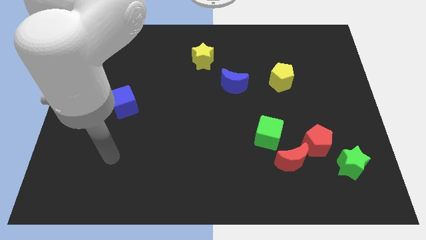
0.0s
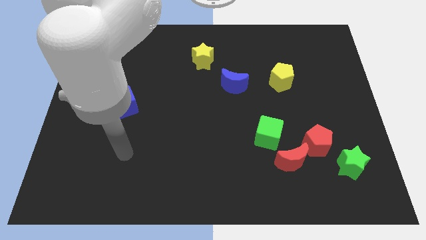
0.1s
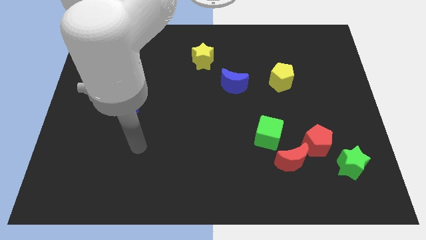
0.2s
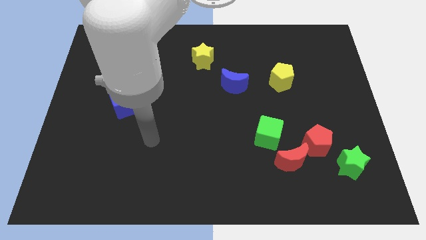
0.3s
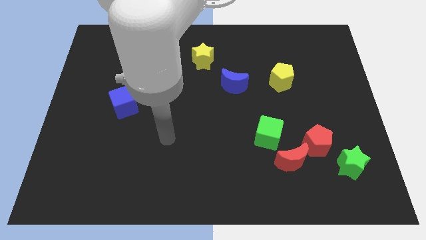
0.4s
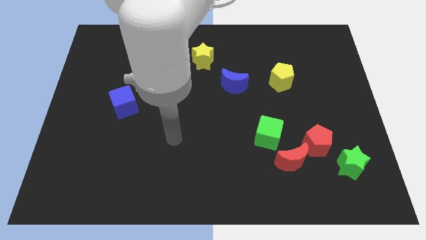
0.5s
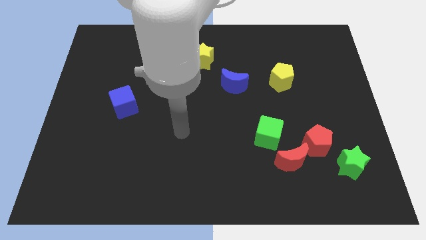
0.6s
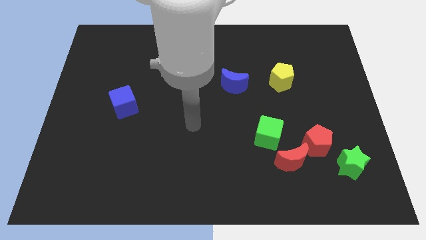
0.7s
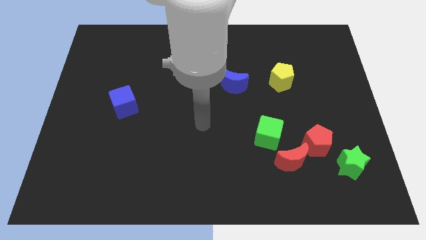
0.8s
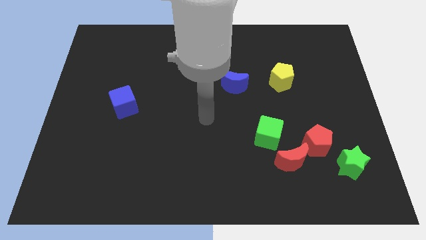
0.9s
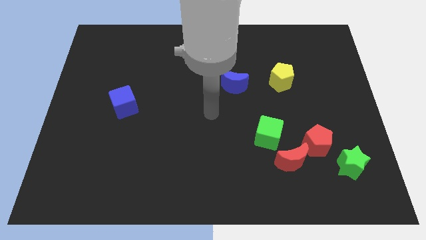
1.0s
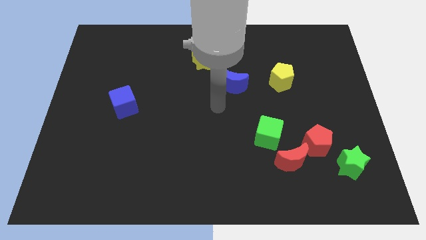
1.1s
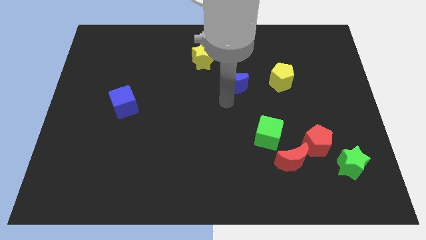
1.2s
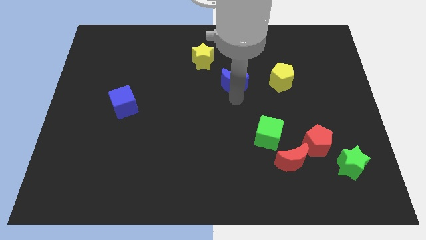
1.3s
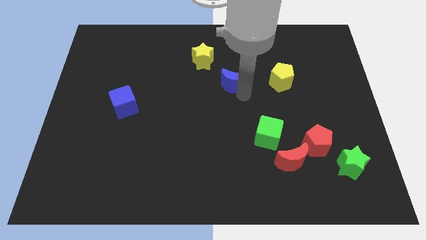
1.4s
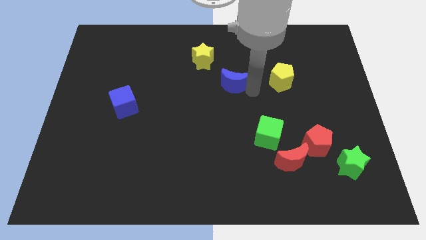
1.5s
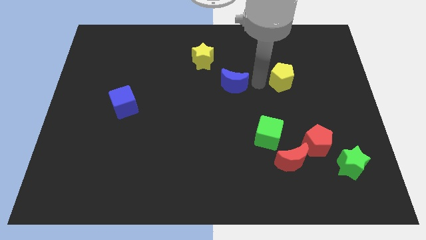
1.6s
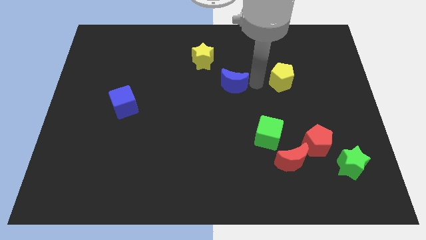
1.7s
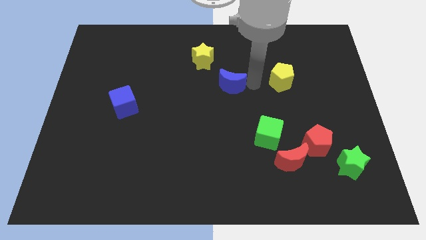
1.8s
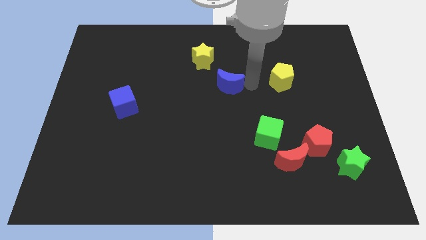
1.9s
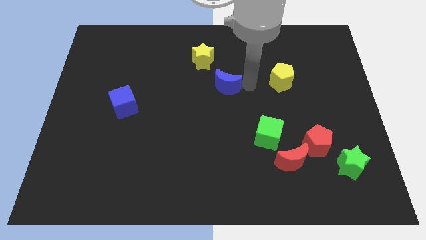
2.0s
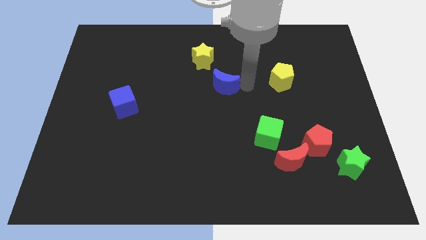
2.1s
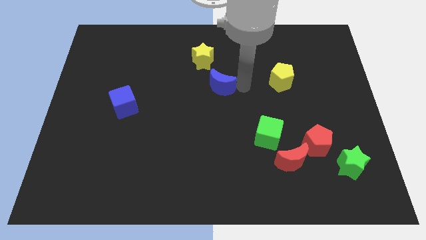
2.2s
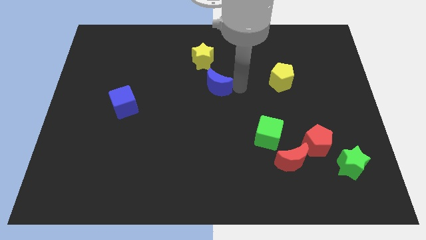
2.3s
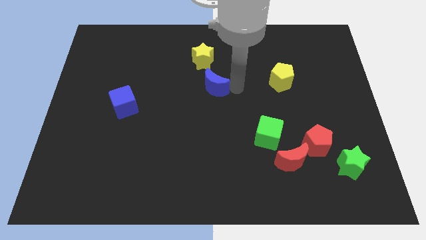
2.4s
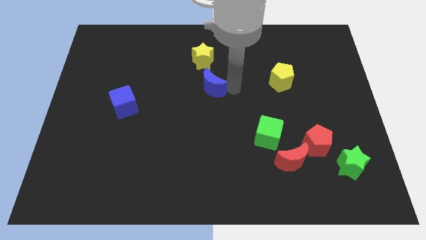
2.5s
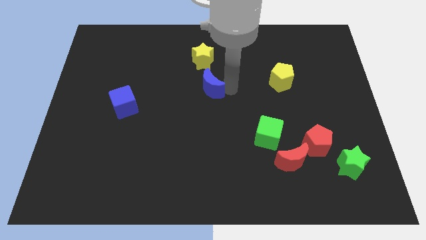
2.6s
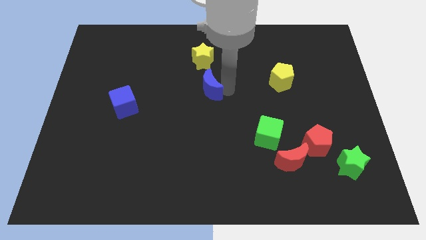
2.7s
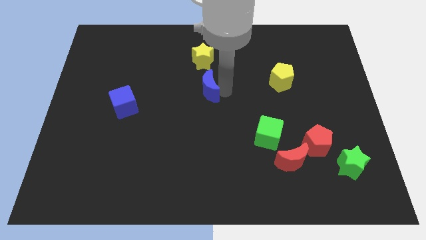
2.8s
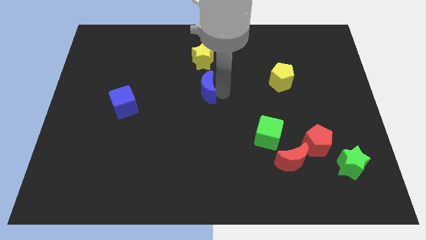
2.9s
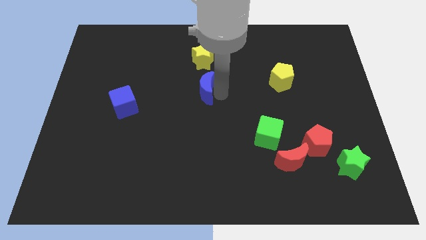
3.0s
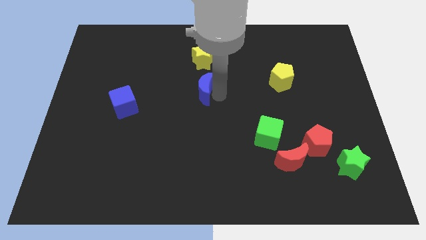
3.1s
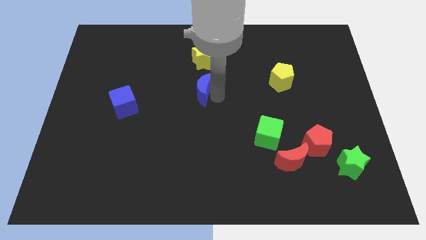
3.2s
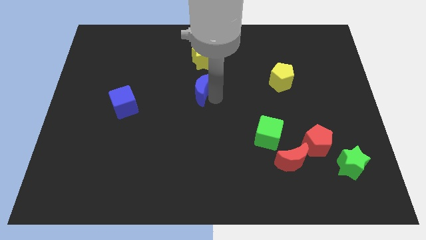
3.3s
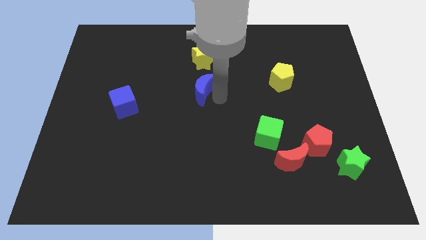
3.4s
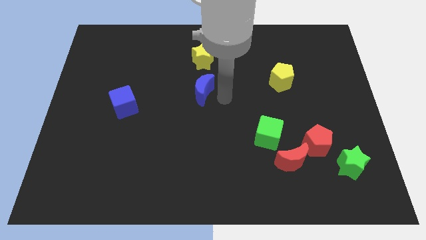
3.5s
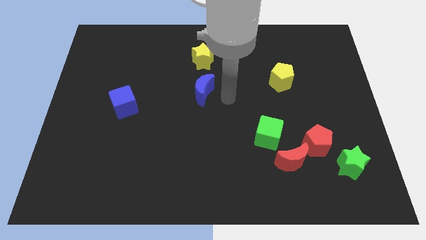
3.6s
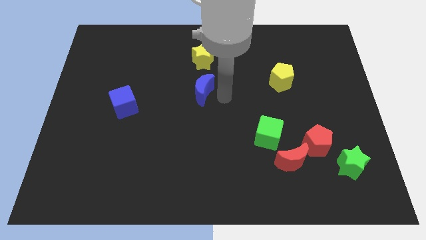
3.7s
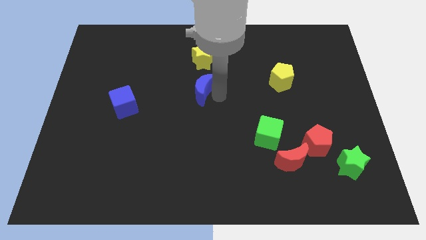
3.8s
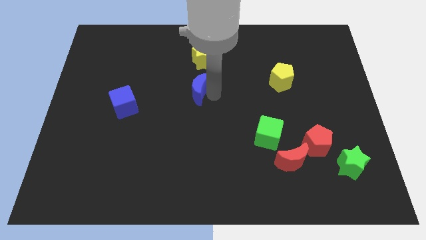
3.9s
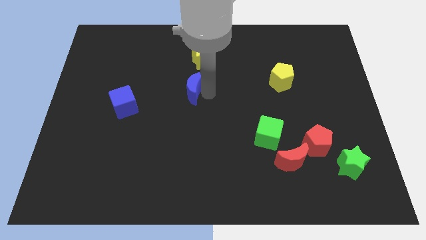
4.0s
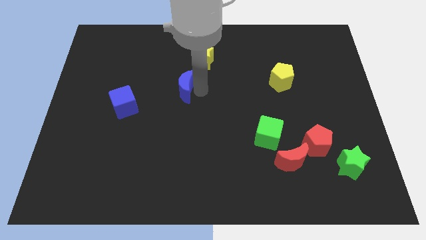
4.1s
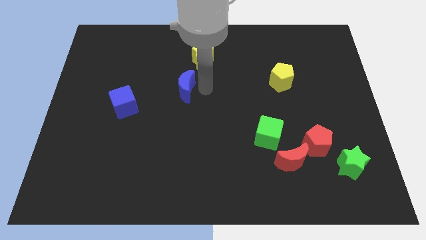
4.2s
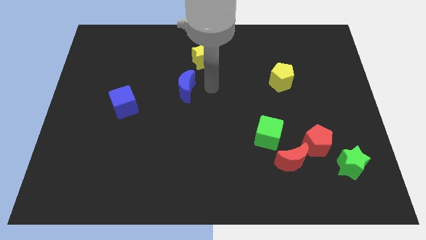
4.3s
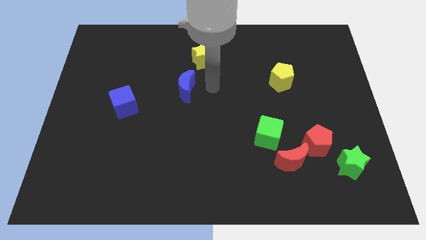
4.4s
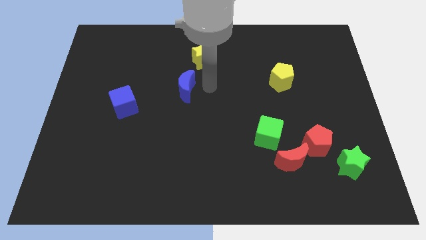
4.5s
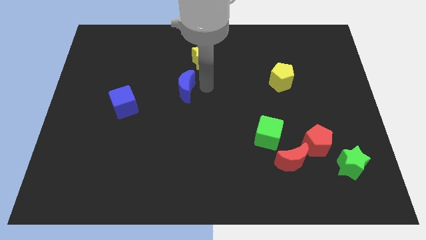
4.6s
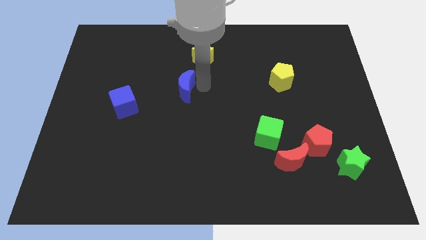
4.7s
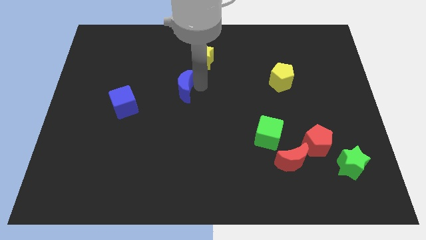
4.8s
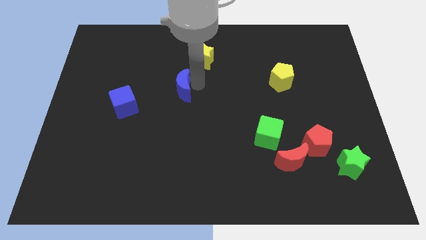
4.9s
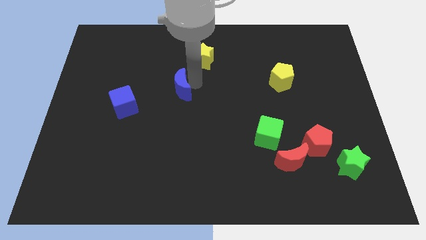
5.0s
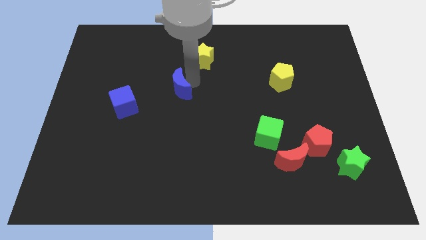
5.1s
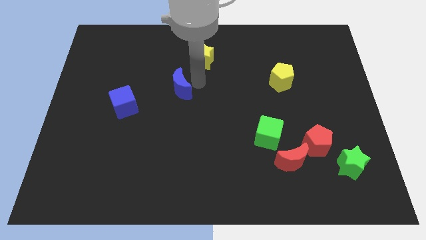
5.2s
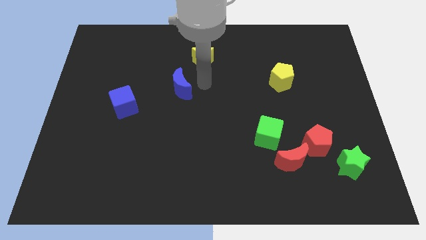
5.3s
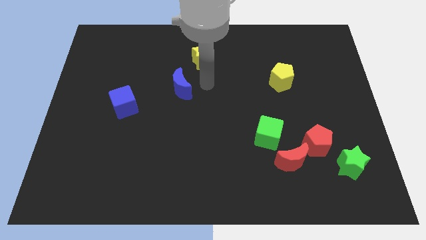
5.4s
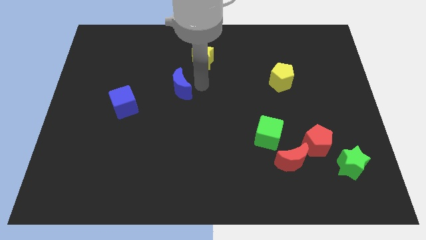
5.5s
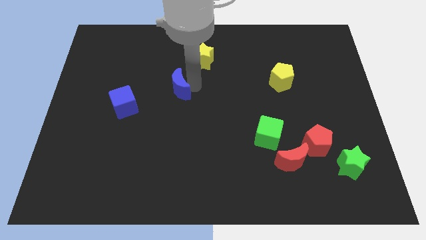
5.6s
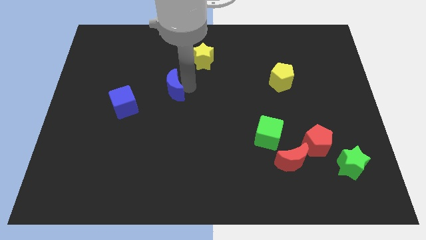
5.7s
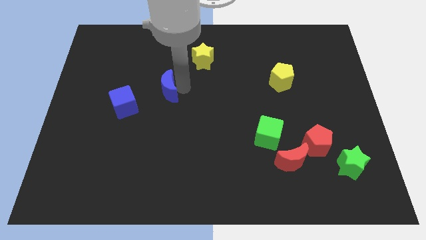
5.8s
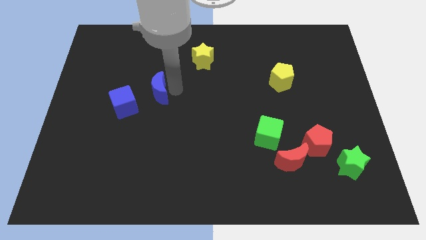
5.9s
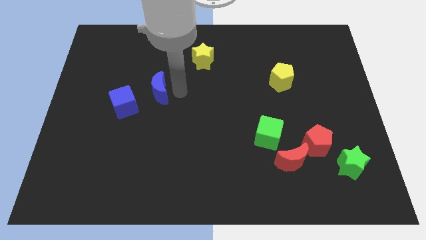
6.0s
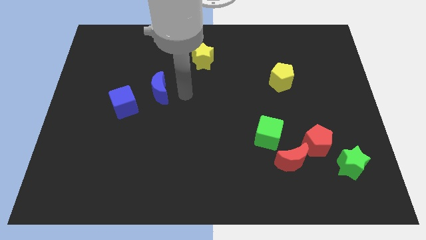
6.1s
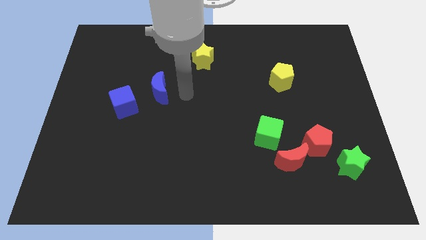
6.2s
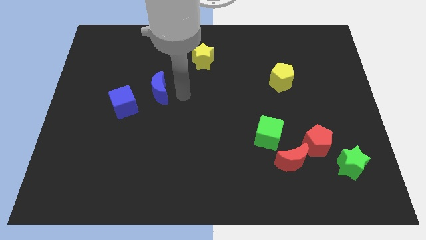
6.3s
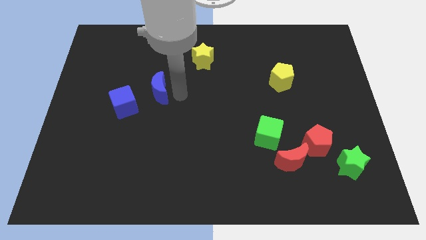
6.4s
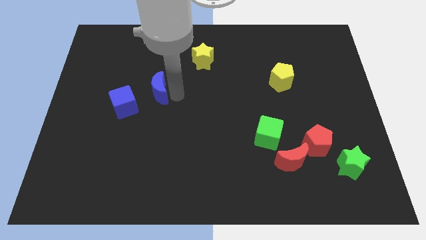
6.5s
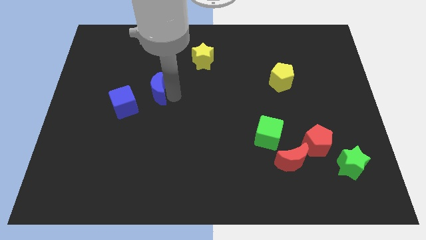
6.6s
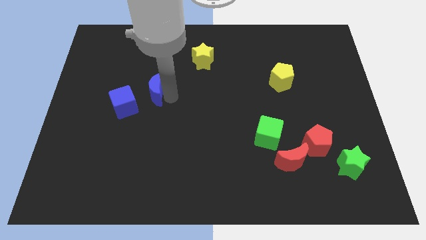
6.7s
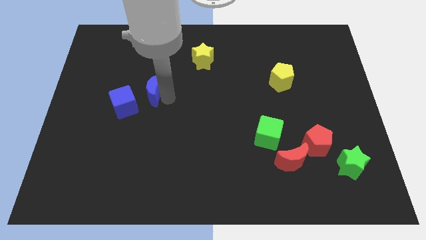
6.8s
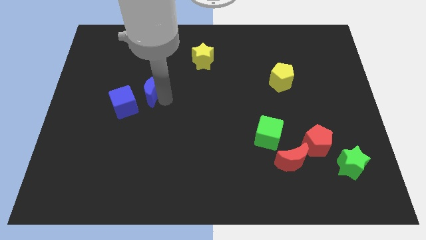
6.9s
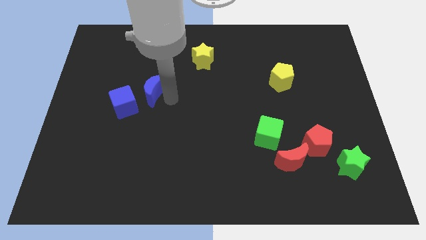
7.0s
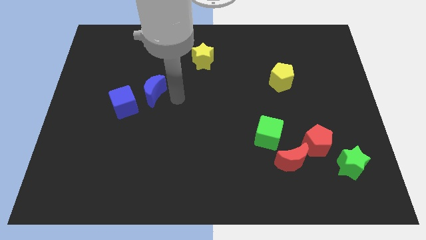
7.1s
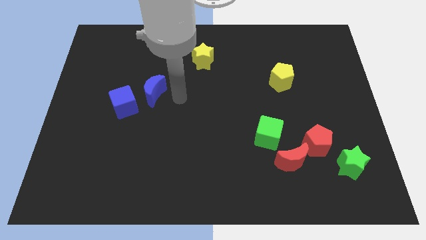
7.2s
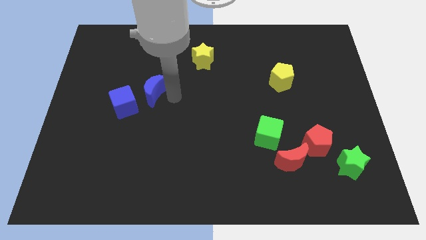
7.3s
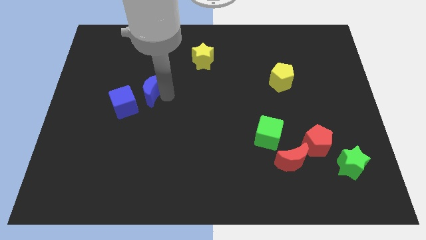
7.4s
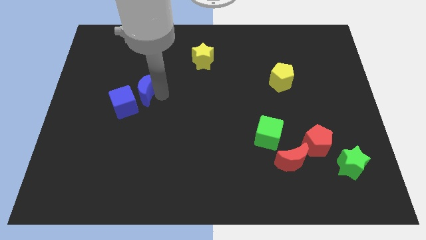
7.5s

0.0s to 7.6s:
push the blue moon to the left

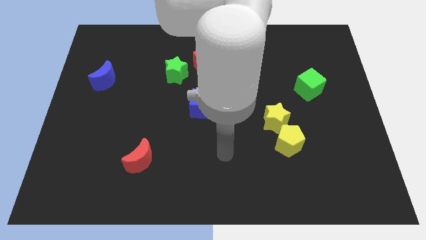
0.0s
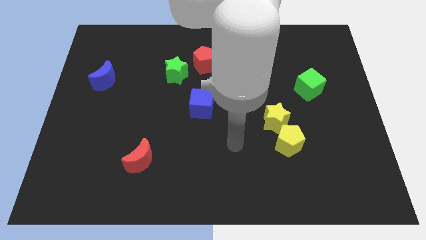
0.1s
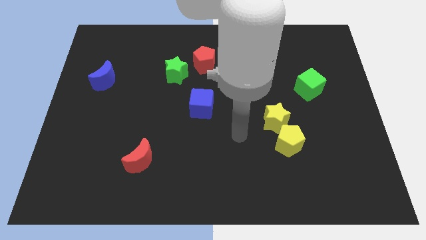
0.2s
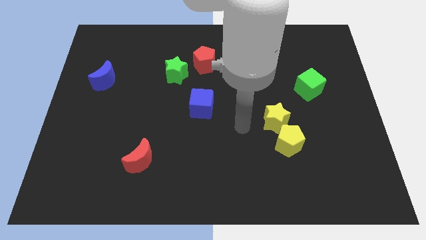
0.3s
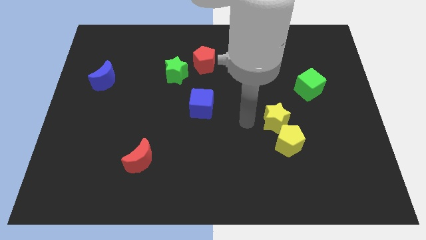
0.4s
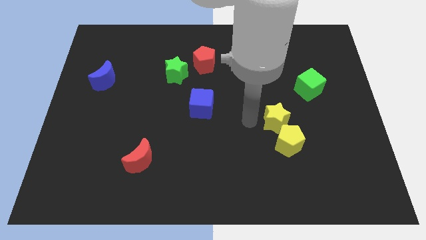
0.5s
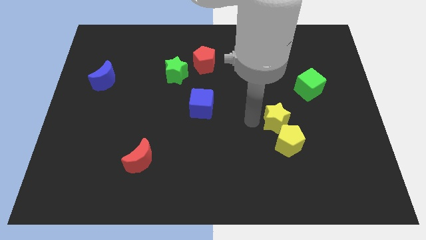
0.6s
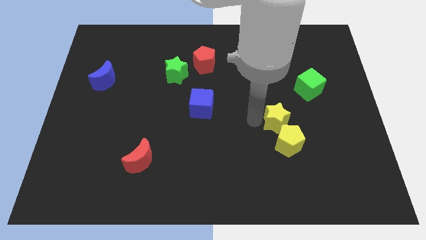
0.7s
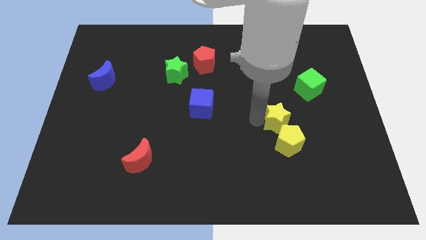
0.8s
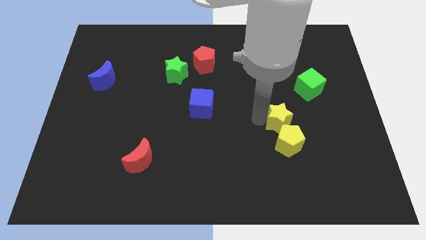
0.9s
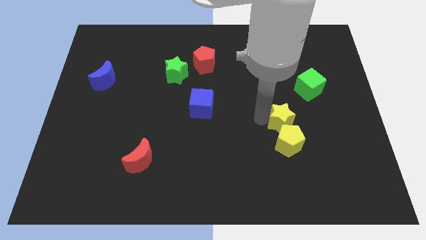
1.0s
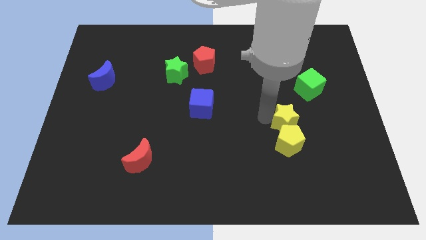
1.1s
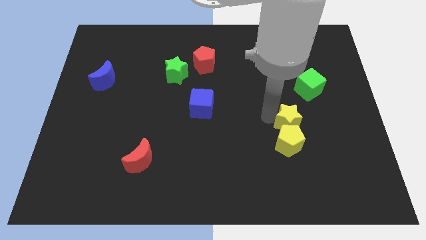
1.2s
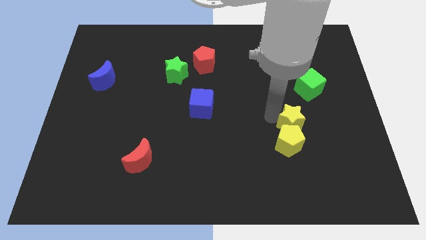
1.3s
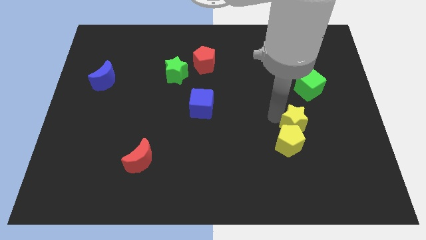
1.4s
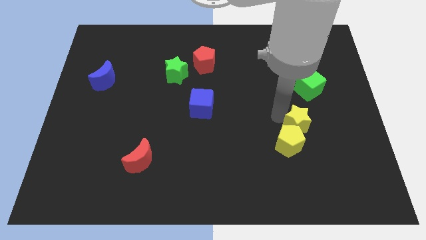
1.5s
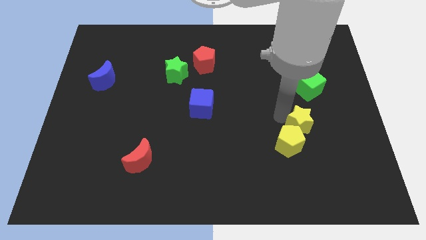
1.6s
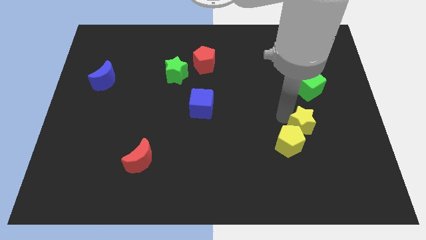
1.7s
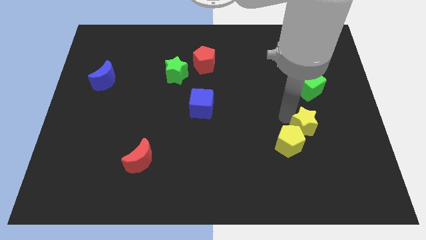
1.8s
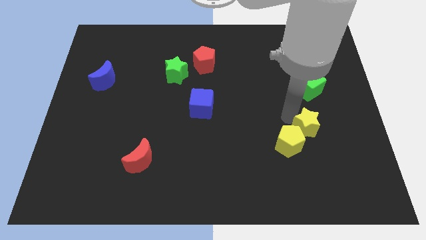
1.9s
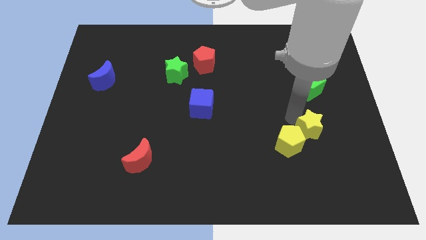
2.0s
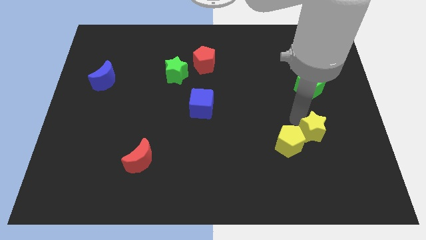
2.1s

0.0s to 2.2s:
slide the yellow star down and to the right diagonally somewhat
